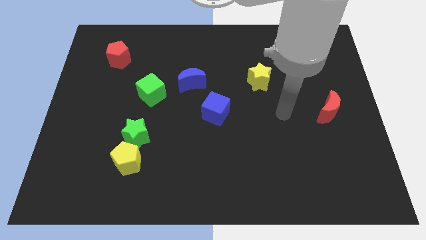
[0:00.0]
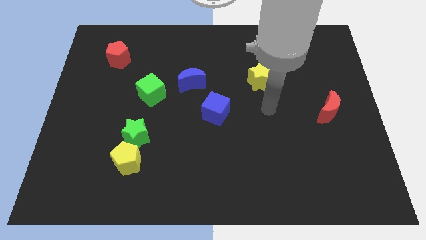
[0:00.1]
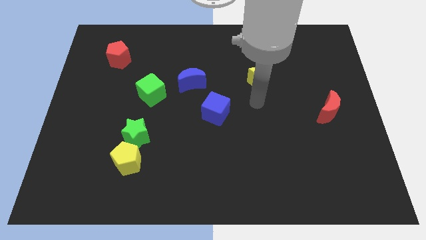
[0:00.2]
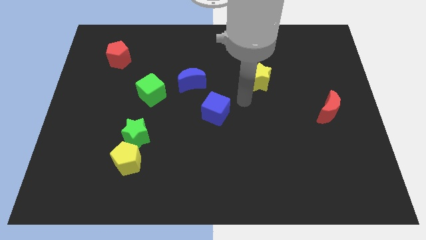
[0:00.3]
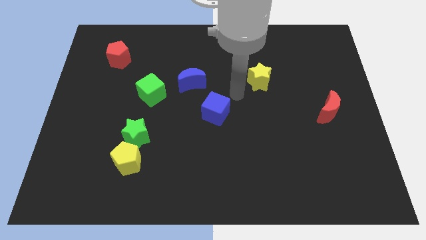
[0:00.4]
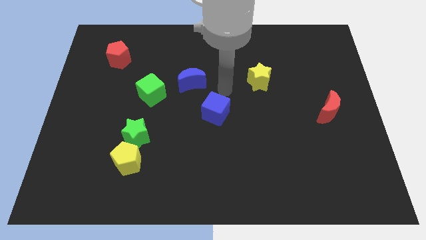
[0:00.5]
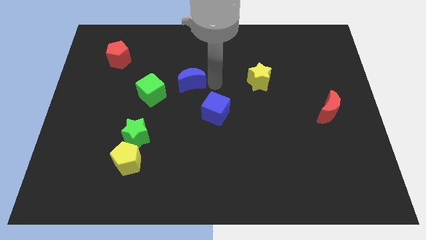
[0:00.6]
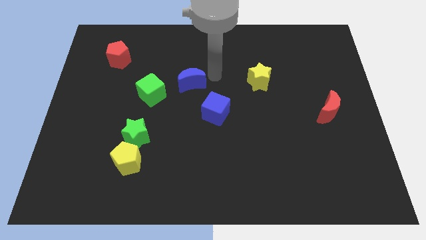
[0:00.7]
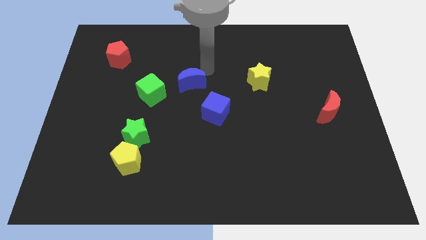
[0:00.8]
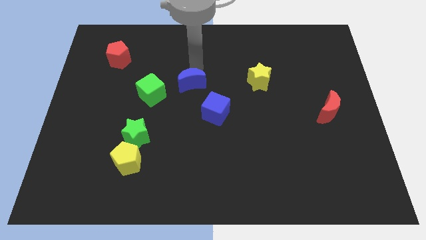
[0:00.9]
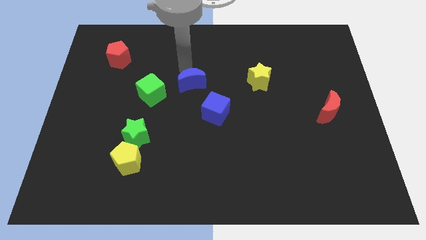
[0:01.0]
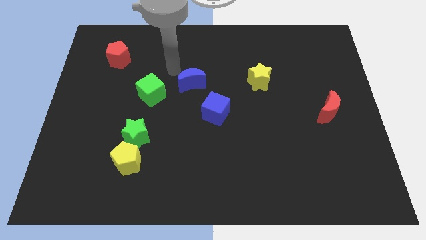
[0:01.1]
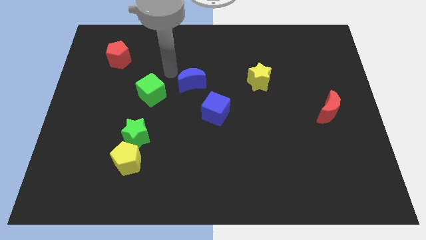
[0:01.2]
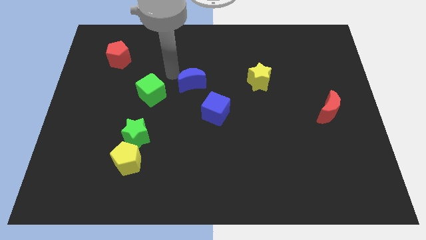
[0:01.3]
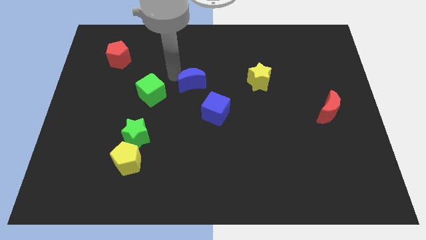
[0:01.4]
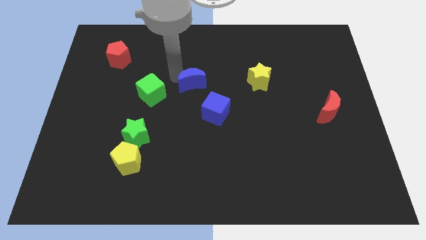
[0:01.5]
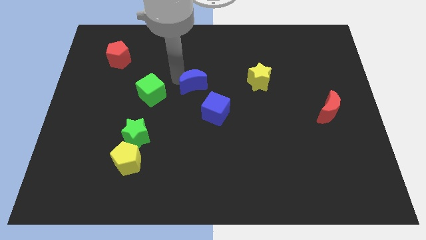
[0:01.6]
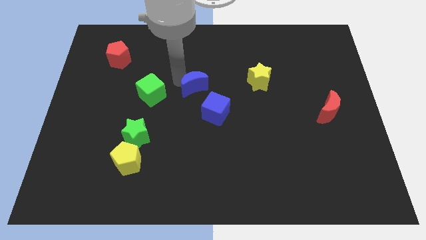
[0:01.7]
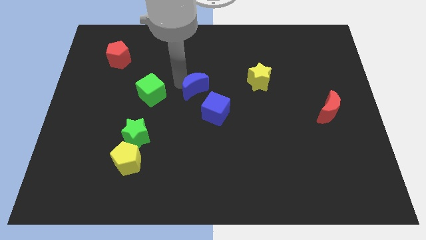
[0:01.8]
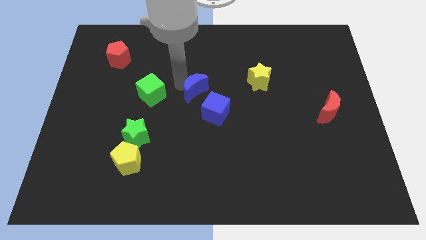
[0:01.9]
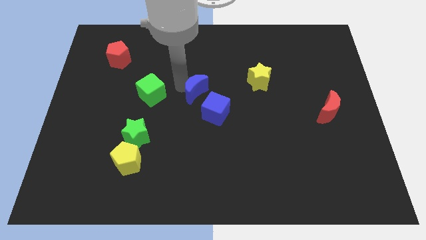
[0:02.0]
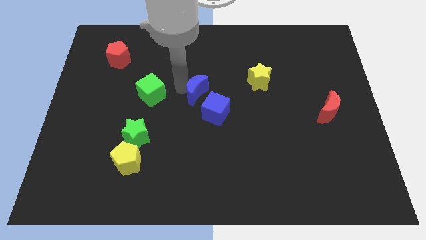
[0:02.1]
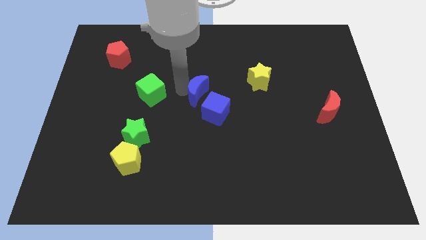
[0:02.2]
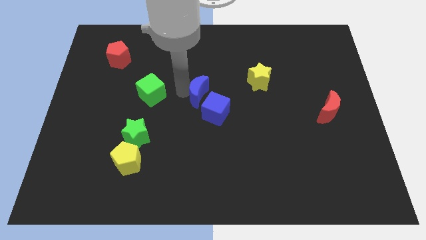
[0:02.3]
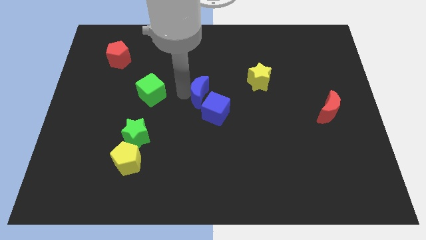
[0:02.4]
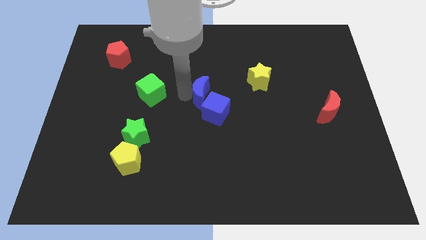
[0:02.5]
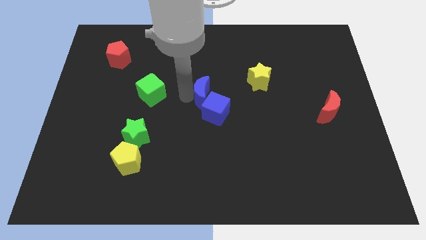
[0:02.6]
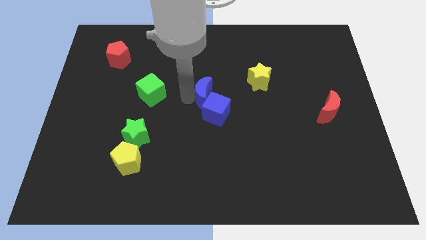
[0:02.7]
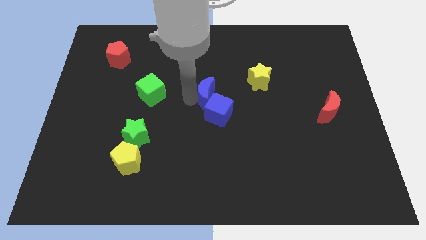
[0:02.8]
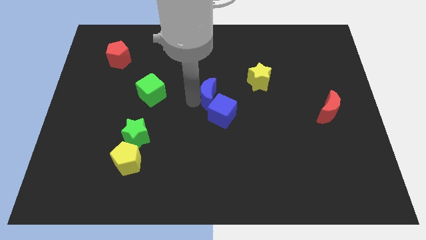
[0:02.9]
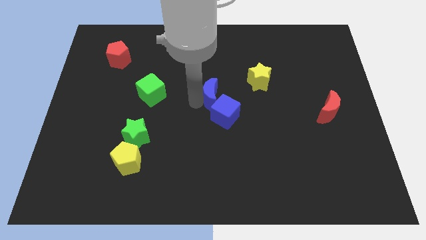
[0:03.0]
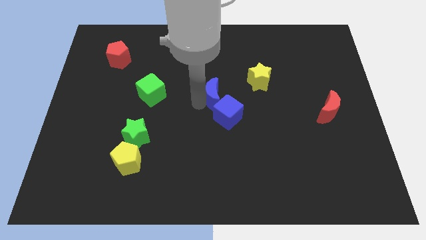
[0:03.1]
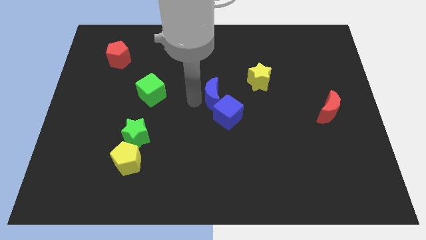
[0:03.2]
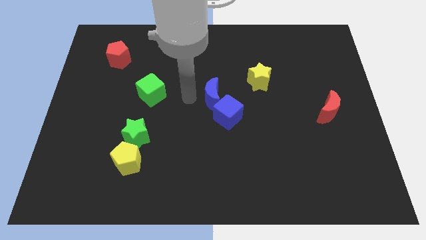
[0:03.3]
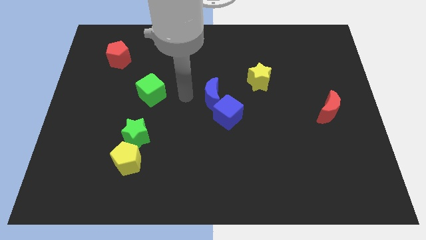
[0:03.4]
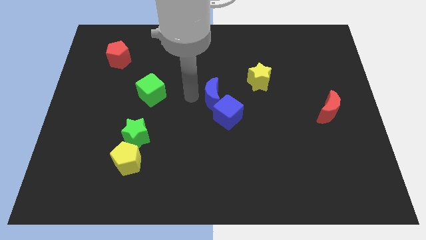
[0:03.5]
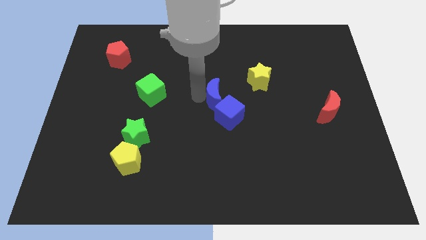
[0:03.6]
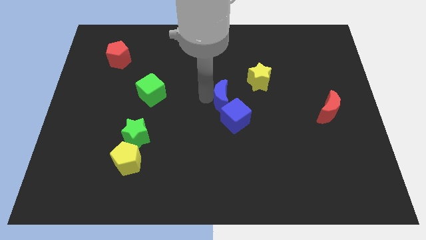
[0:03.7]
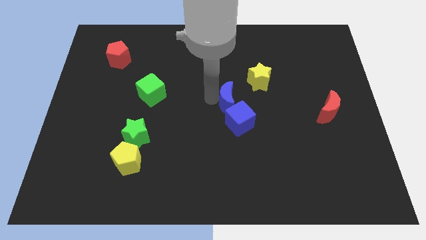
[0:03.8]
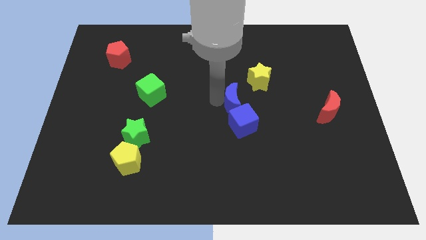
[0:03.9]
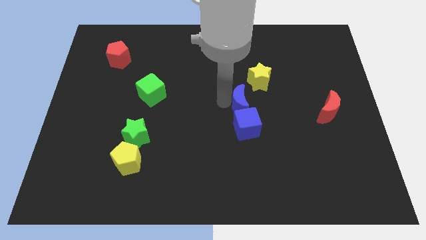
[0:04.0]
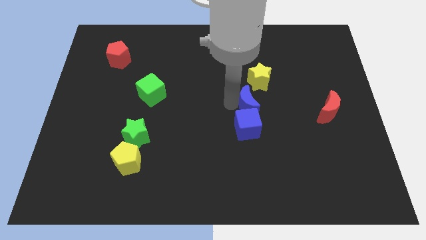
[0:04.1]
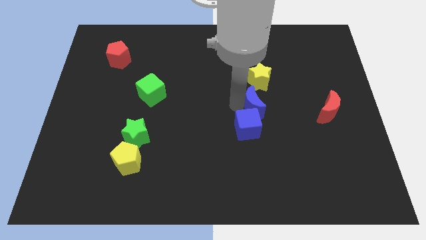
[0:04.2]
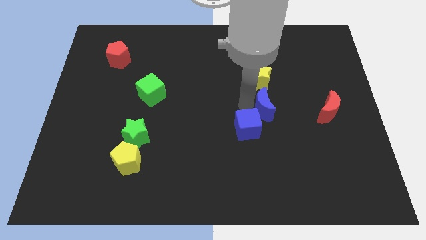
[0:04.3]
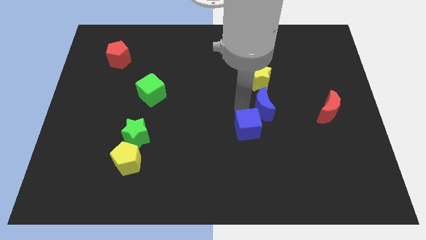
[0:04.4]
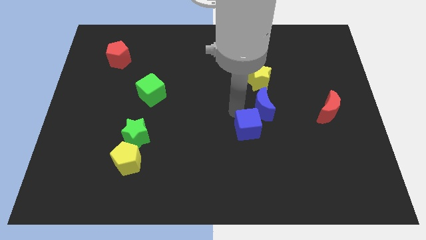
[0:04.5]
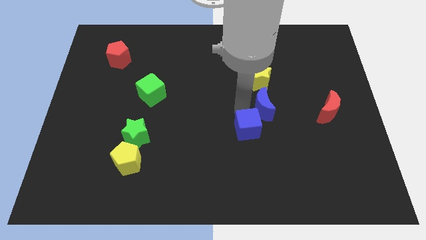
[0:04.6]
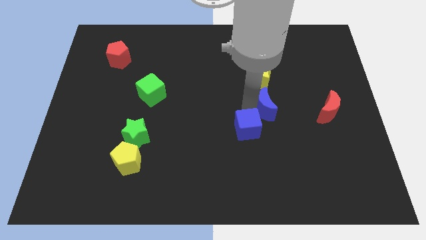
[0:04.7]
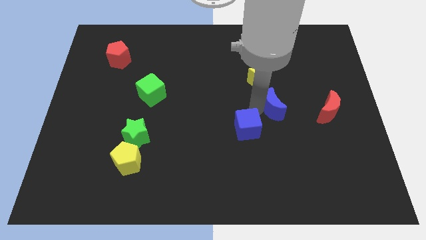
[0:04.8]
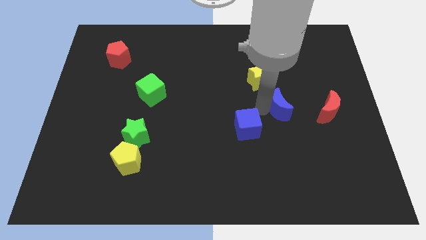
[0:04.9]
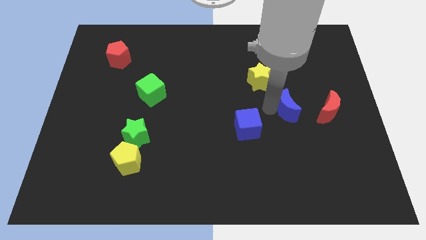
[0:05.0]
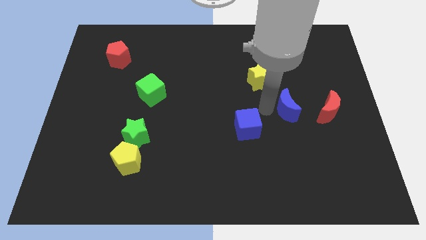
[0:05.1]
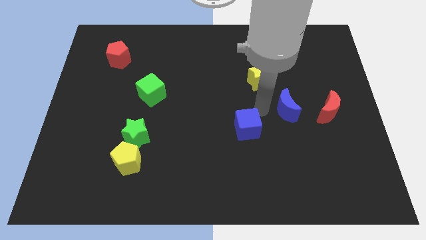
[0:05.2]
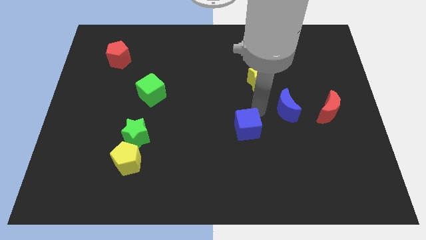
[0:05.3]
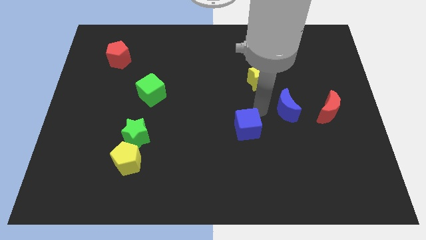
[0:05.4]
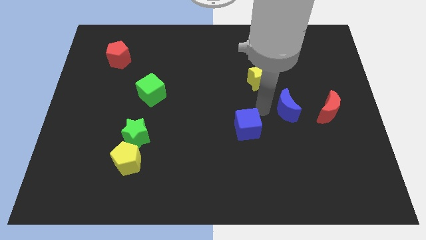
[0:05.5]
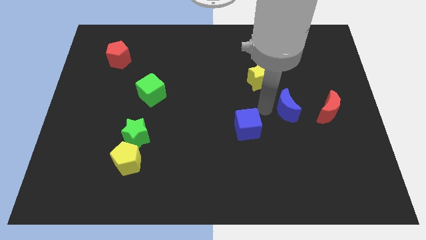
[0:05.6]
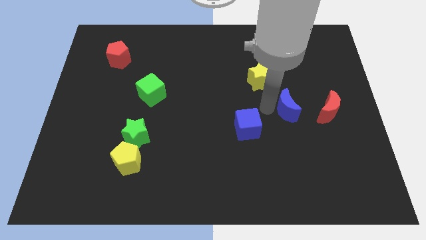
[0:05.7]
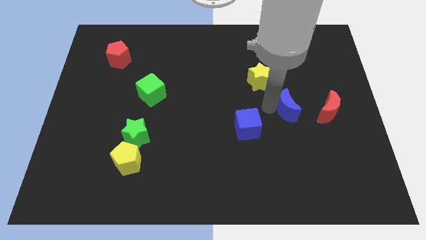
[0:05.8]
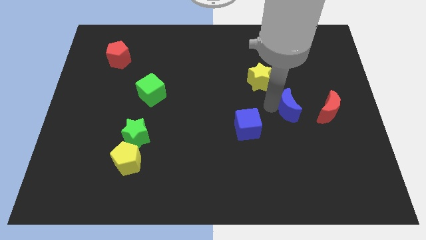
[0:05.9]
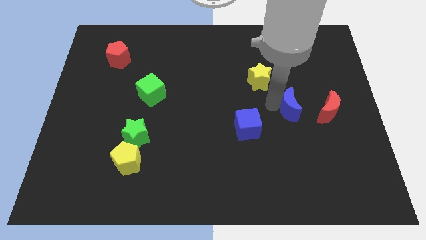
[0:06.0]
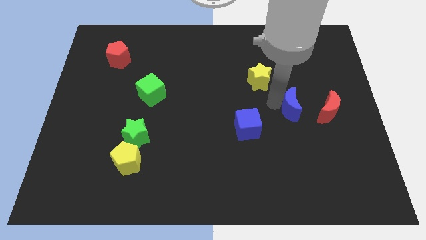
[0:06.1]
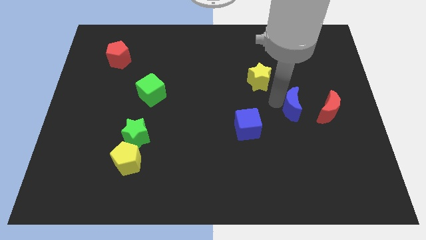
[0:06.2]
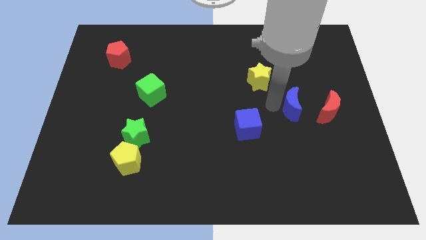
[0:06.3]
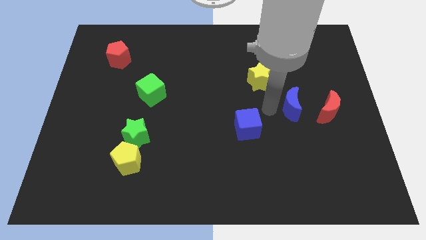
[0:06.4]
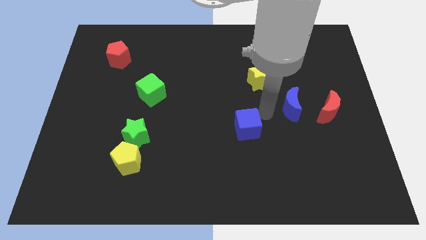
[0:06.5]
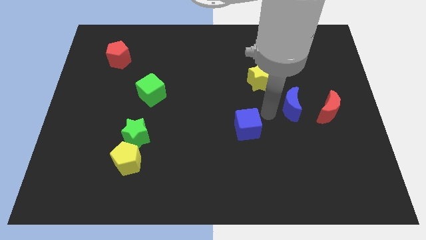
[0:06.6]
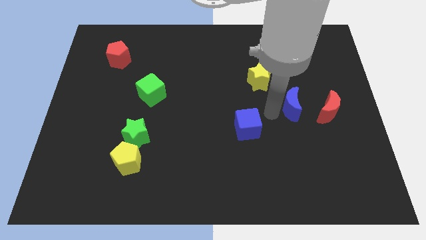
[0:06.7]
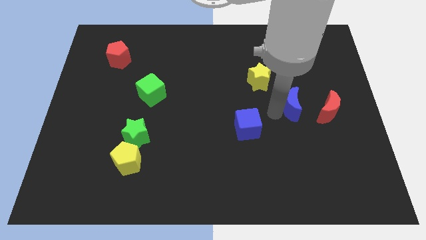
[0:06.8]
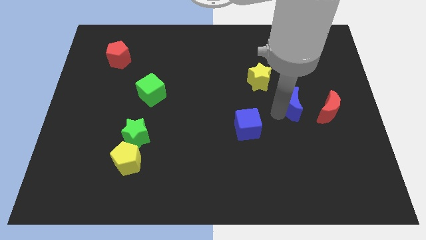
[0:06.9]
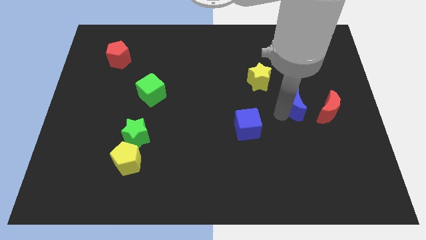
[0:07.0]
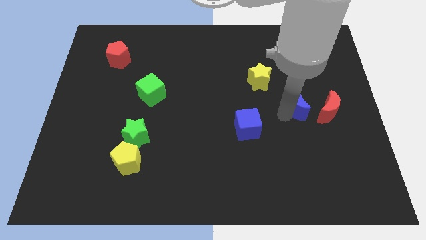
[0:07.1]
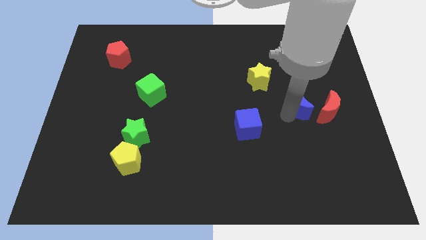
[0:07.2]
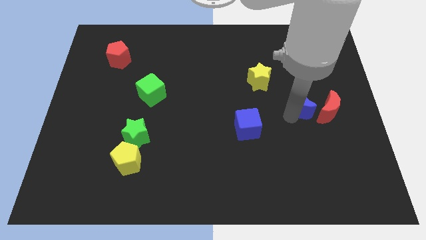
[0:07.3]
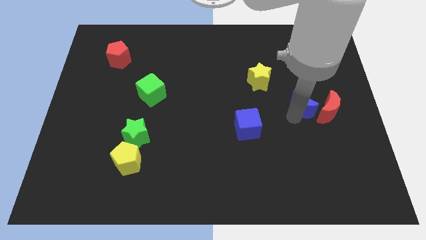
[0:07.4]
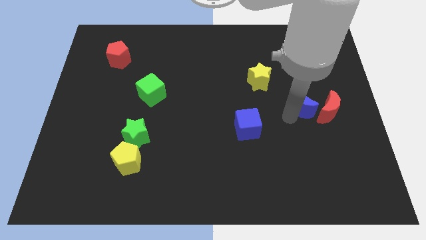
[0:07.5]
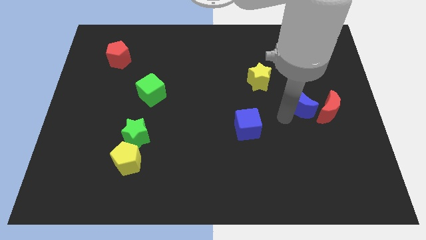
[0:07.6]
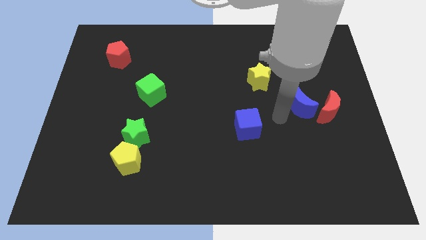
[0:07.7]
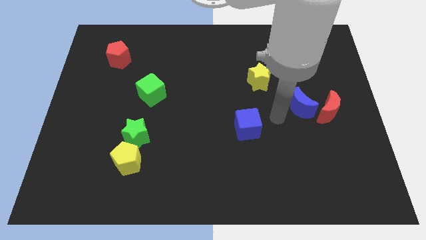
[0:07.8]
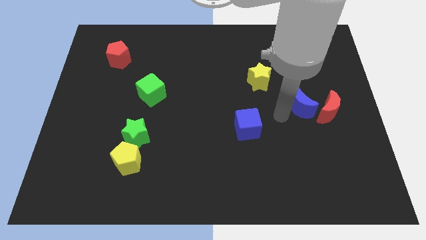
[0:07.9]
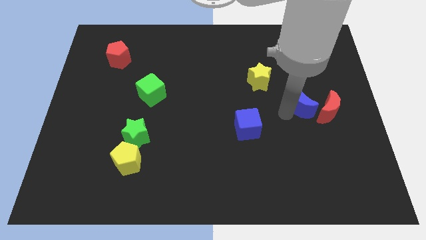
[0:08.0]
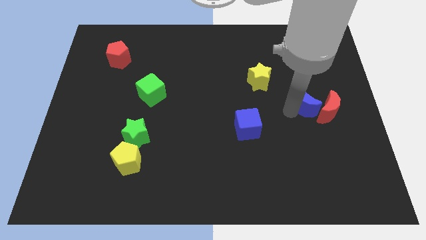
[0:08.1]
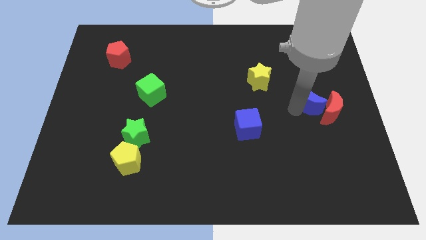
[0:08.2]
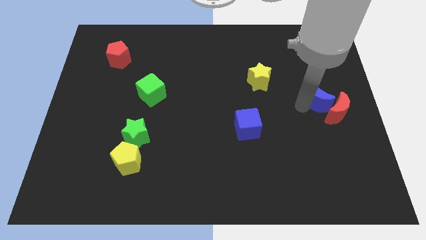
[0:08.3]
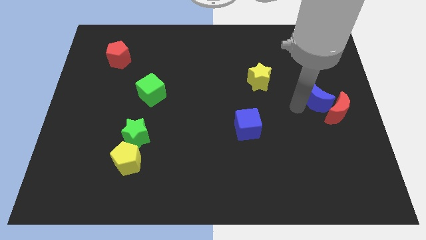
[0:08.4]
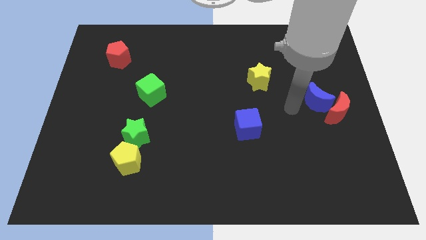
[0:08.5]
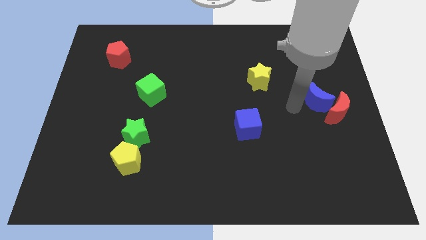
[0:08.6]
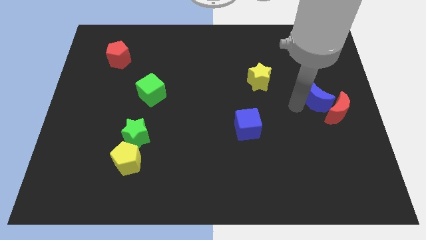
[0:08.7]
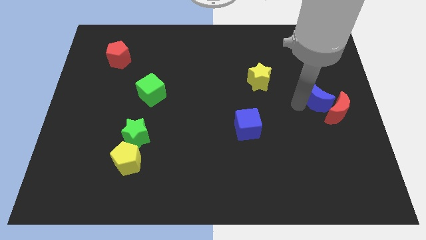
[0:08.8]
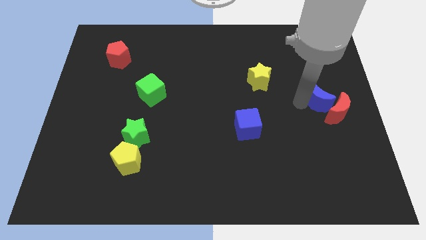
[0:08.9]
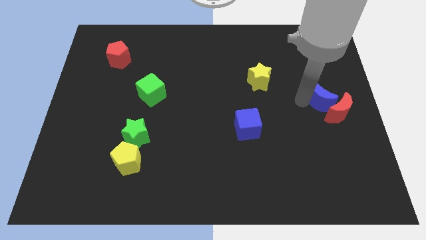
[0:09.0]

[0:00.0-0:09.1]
put the blue moon to the right side of the board
